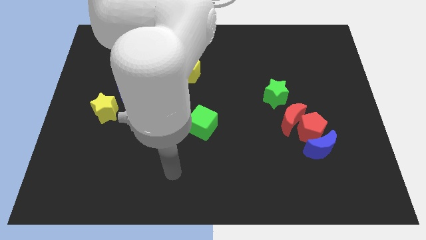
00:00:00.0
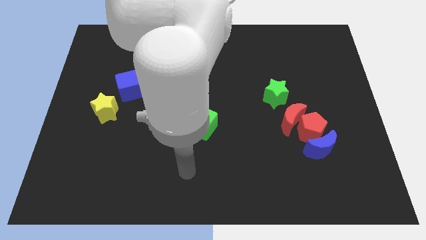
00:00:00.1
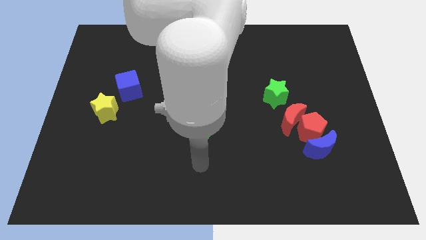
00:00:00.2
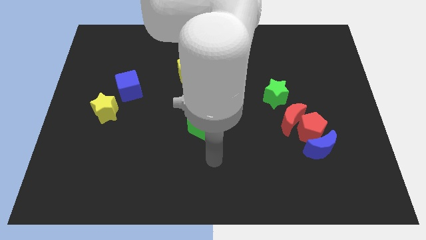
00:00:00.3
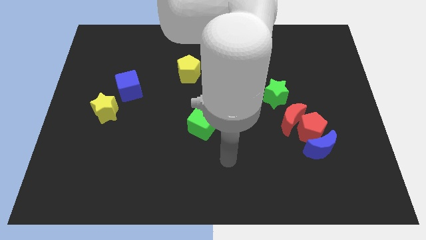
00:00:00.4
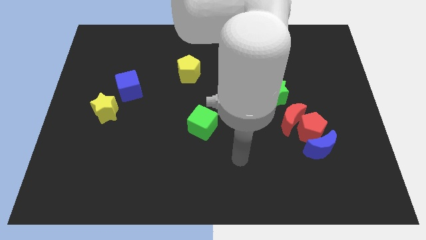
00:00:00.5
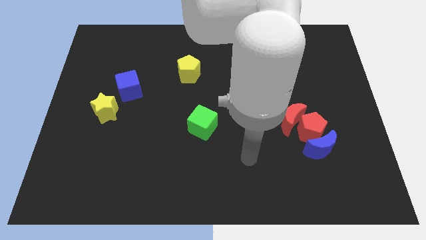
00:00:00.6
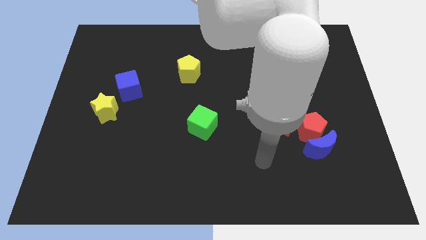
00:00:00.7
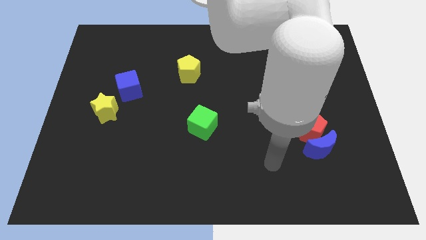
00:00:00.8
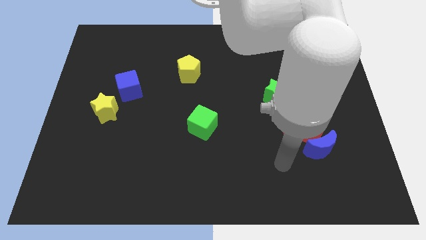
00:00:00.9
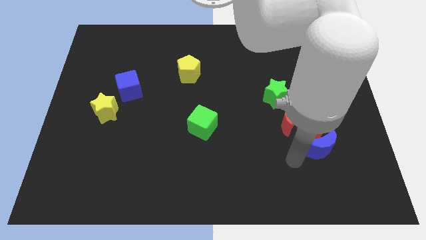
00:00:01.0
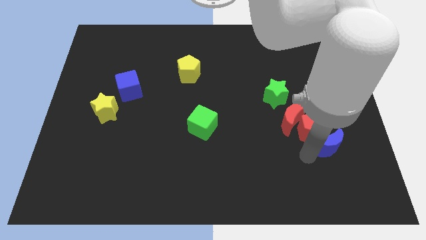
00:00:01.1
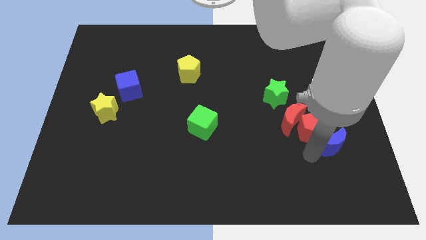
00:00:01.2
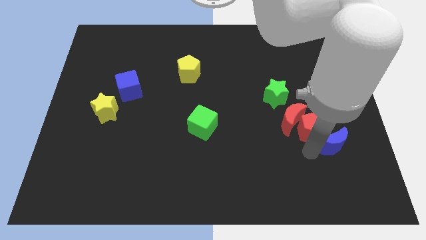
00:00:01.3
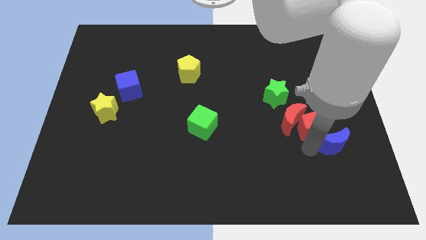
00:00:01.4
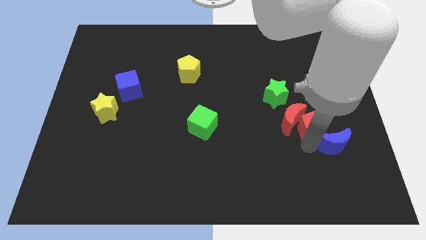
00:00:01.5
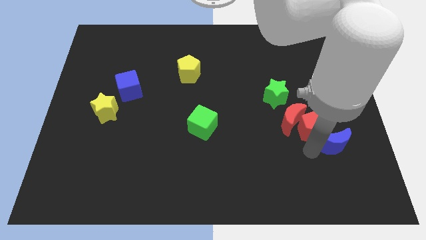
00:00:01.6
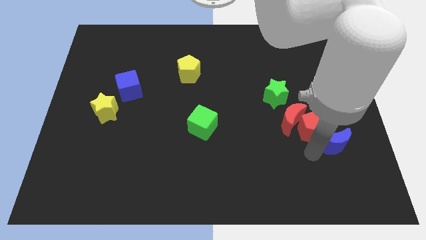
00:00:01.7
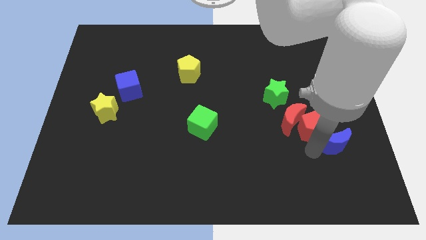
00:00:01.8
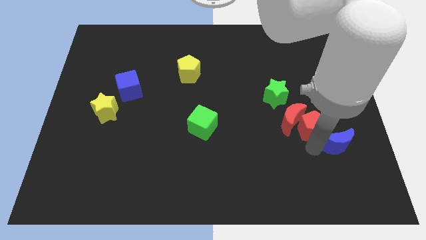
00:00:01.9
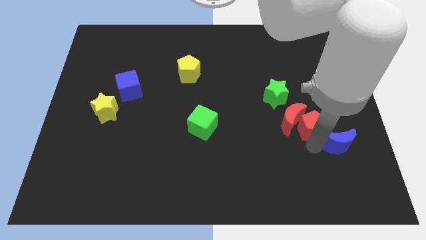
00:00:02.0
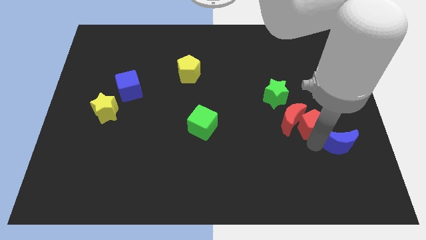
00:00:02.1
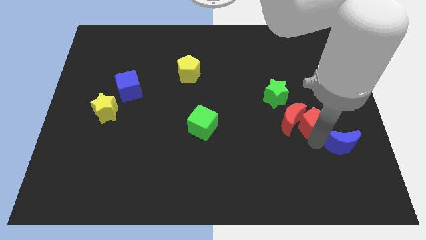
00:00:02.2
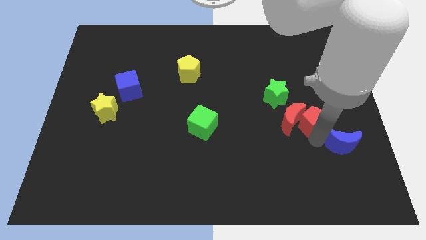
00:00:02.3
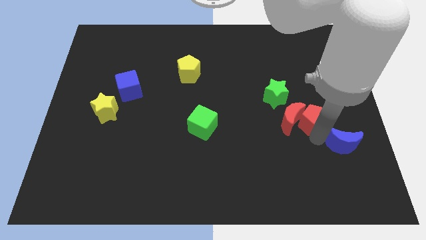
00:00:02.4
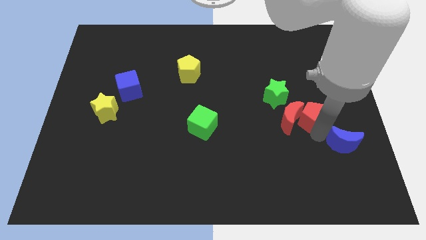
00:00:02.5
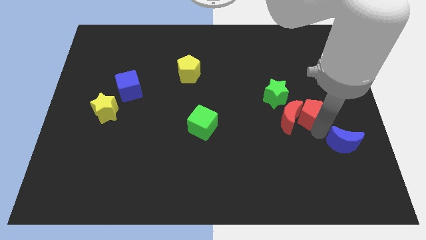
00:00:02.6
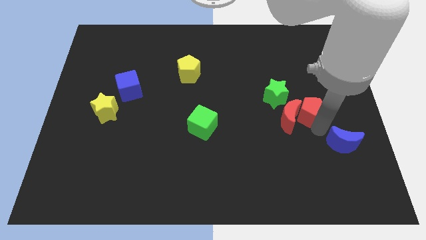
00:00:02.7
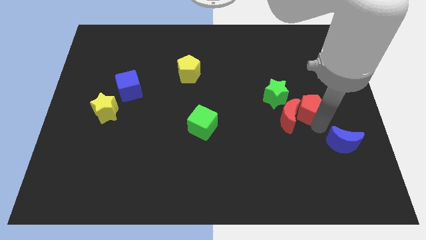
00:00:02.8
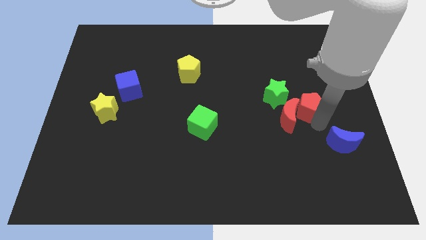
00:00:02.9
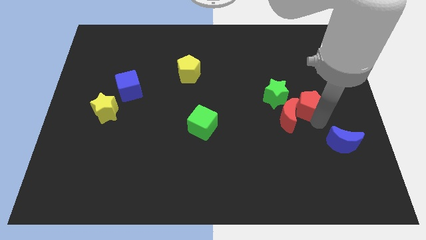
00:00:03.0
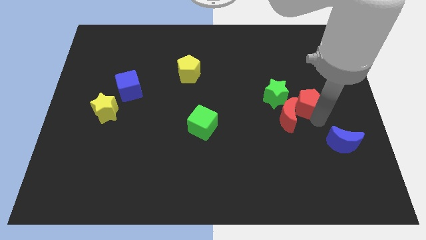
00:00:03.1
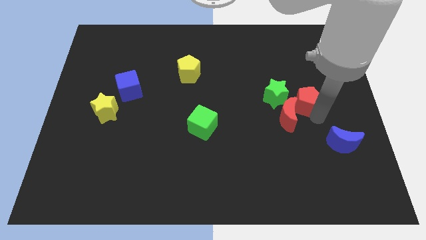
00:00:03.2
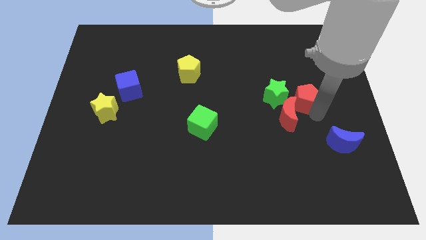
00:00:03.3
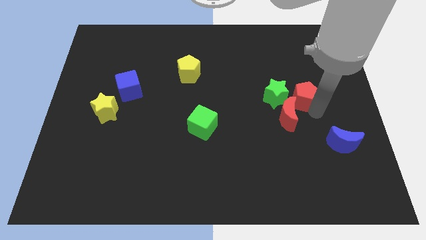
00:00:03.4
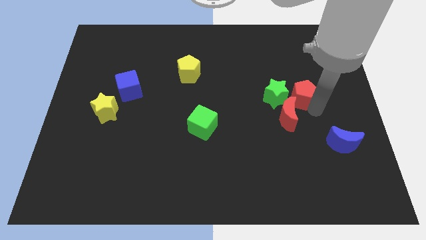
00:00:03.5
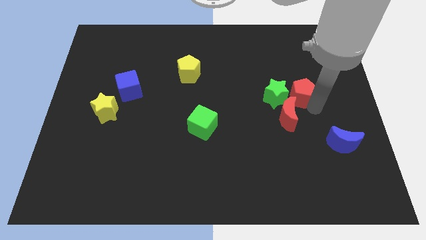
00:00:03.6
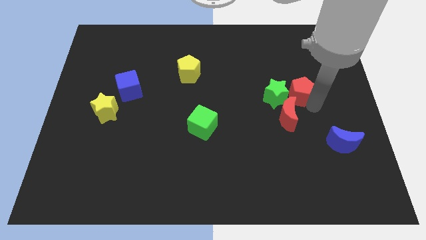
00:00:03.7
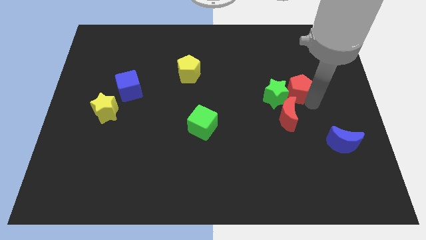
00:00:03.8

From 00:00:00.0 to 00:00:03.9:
push the red pentagon a little bit upwards and to the left

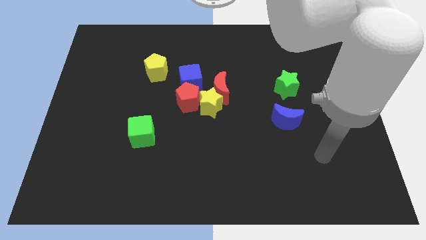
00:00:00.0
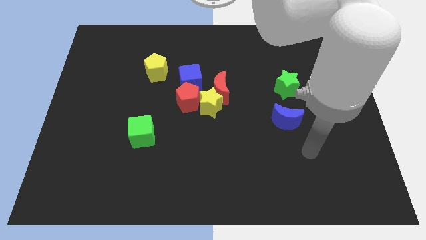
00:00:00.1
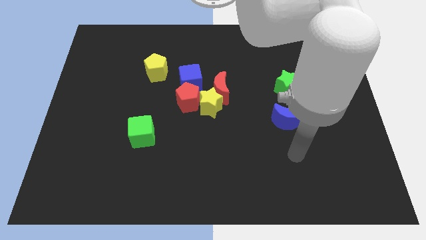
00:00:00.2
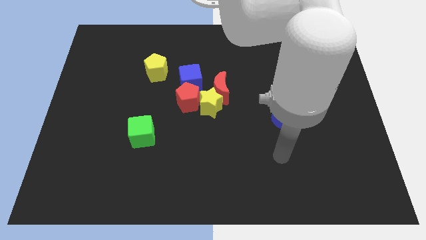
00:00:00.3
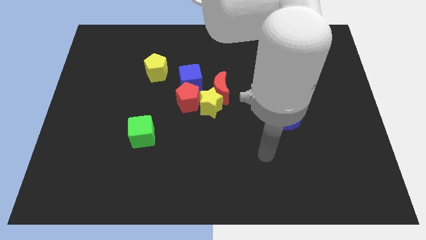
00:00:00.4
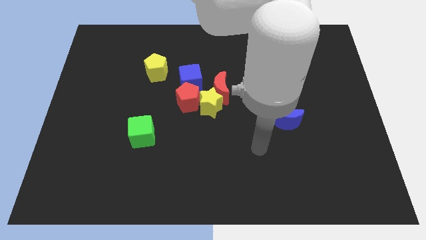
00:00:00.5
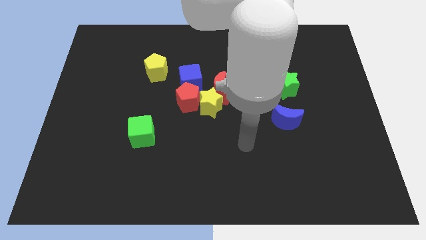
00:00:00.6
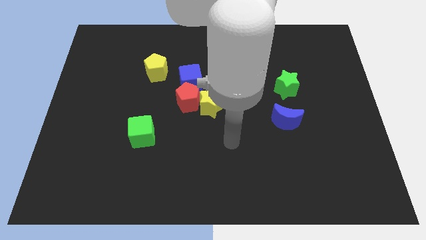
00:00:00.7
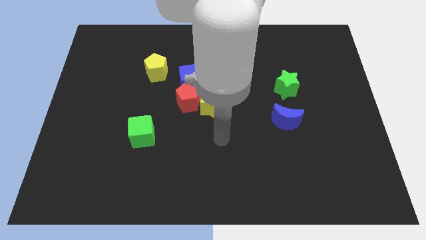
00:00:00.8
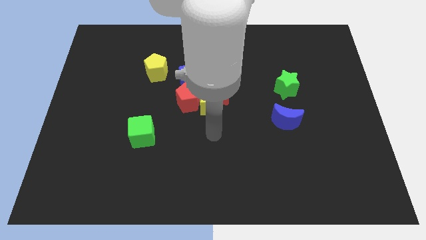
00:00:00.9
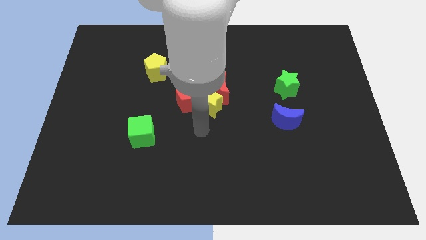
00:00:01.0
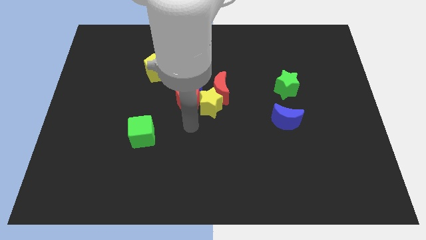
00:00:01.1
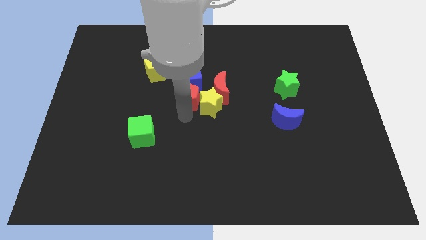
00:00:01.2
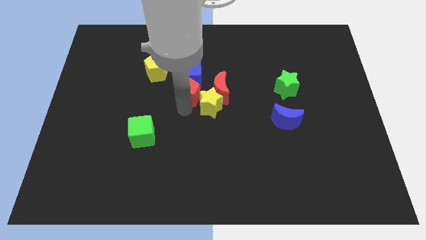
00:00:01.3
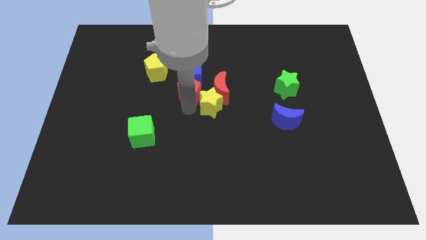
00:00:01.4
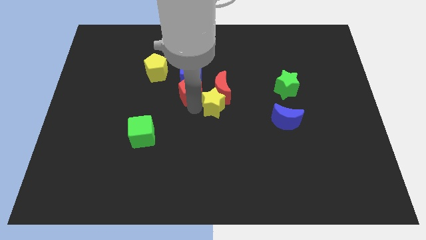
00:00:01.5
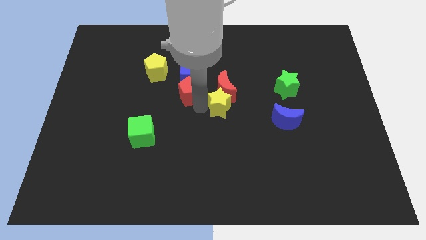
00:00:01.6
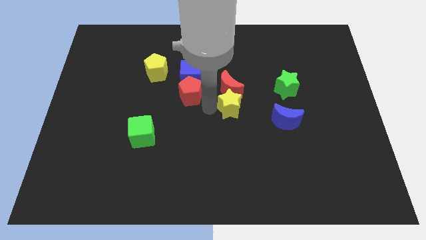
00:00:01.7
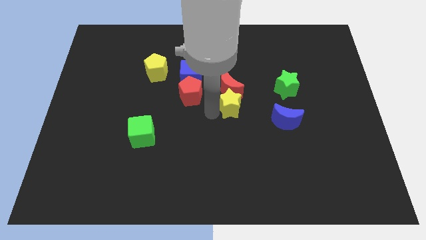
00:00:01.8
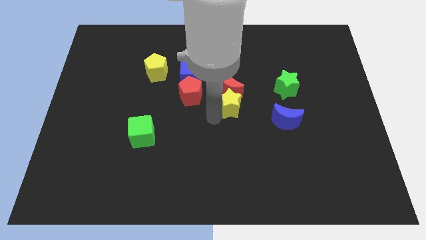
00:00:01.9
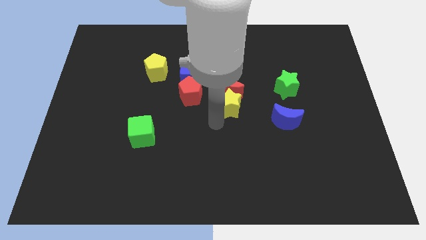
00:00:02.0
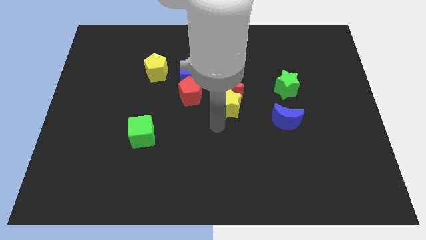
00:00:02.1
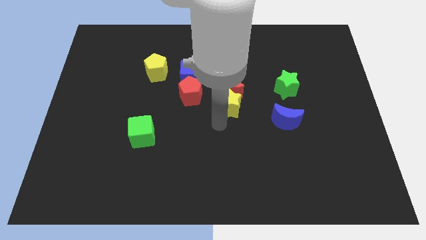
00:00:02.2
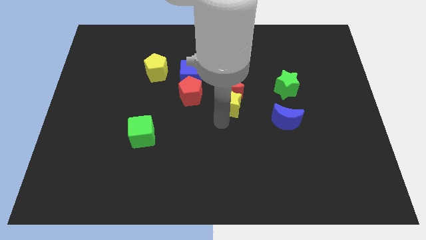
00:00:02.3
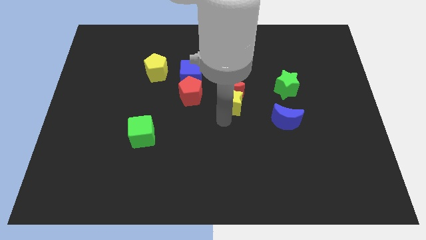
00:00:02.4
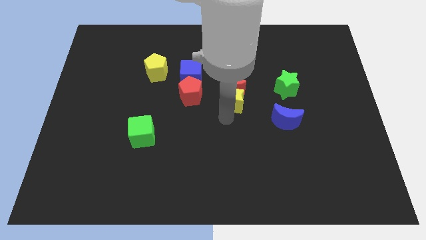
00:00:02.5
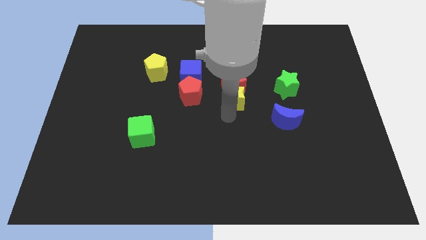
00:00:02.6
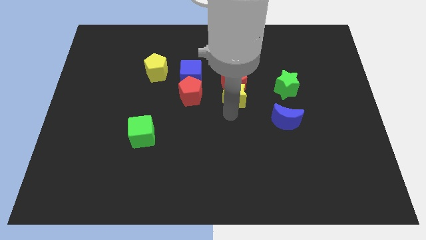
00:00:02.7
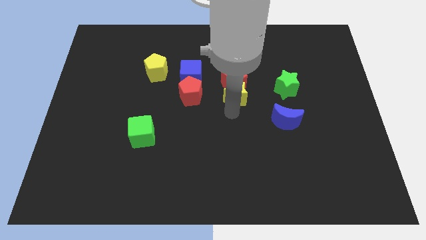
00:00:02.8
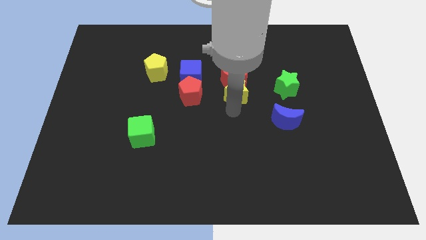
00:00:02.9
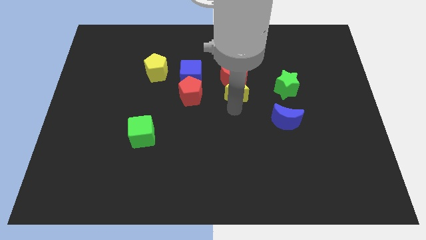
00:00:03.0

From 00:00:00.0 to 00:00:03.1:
slightly slide the yellow star up and right diagonally

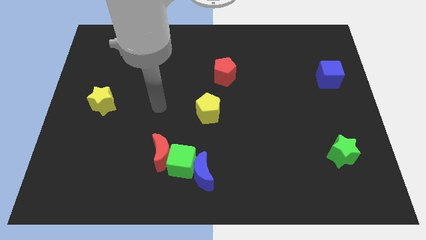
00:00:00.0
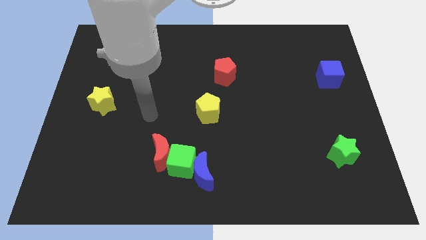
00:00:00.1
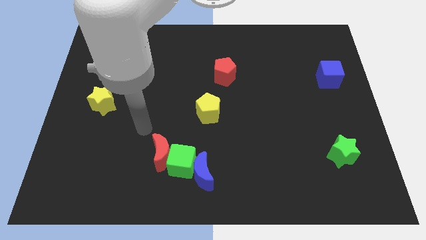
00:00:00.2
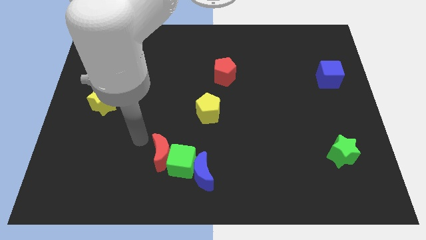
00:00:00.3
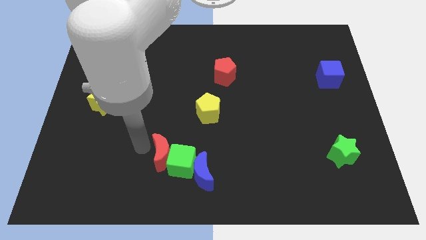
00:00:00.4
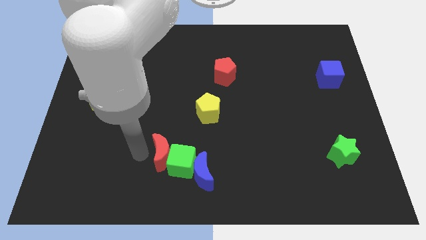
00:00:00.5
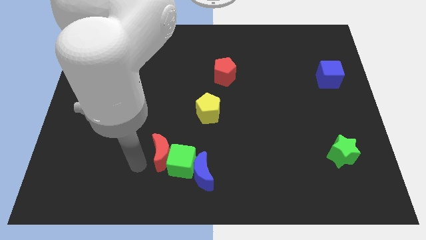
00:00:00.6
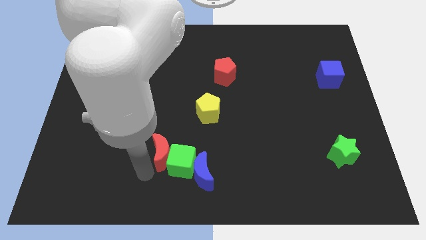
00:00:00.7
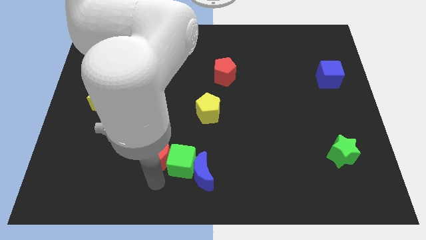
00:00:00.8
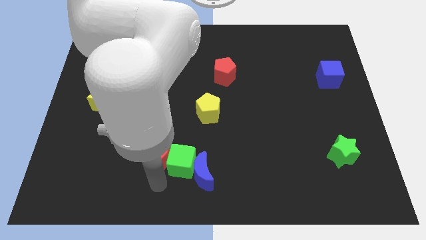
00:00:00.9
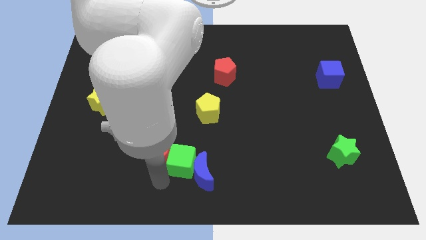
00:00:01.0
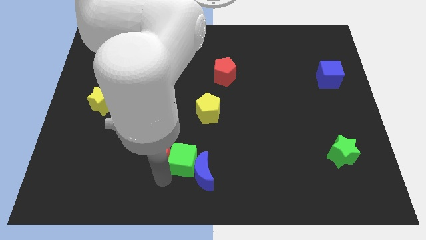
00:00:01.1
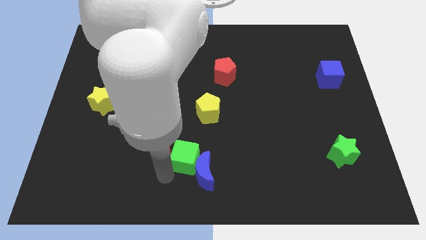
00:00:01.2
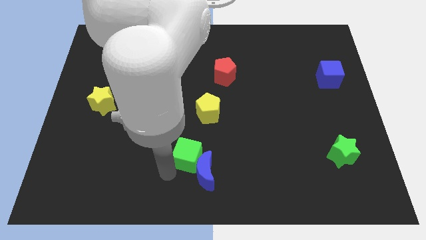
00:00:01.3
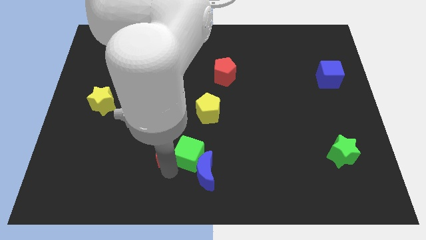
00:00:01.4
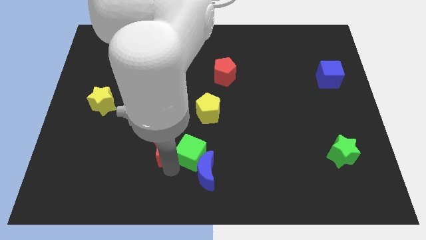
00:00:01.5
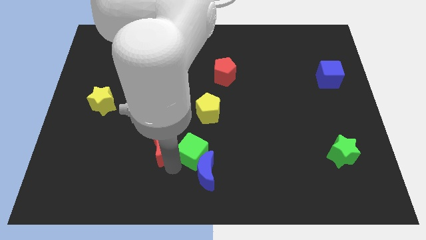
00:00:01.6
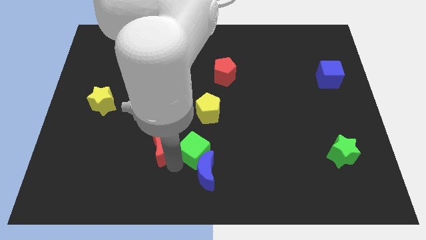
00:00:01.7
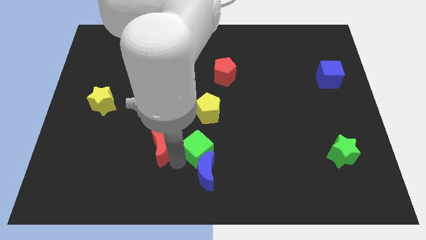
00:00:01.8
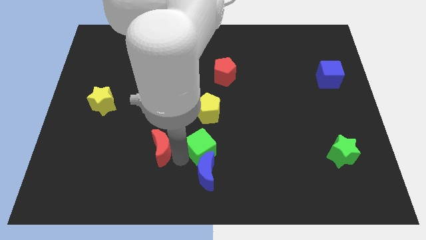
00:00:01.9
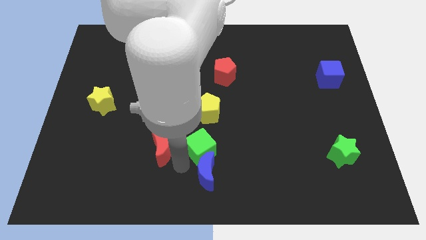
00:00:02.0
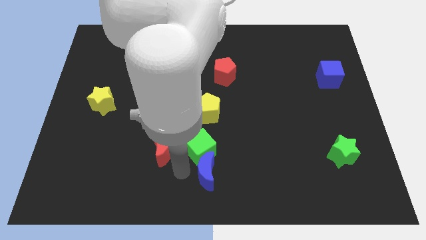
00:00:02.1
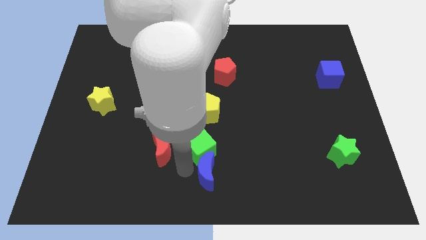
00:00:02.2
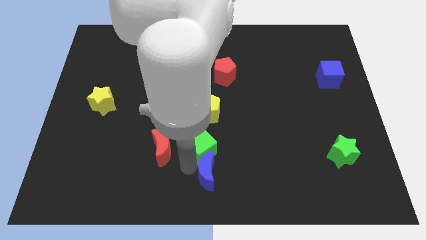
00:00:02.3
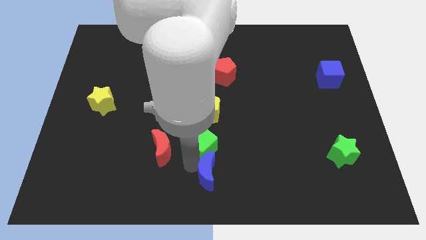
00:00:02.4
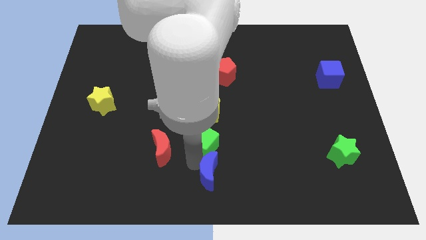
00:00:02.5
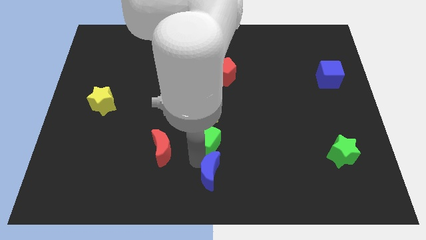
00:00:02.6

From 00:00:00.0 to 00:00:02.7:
slightly move the green cube up and to the right diagonally
